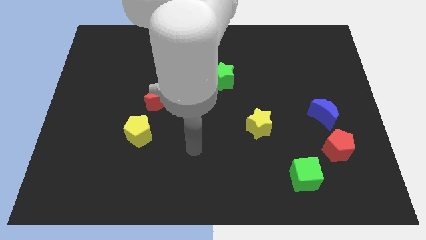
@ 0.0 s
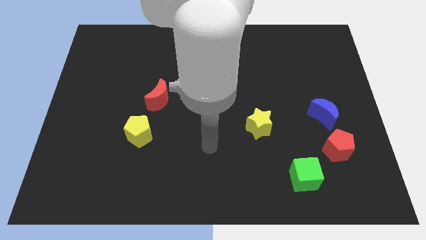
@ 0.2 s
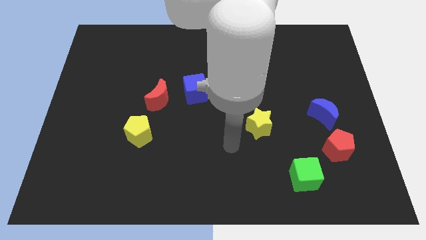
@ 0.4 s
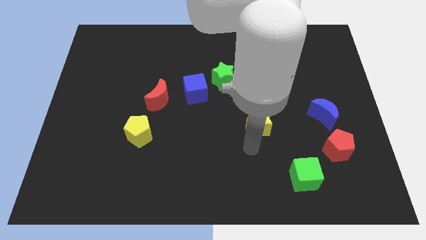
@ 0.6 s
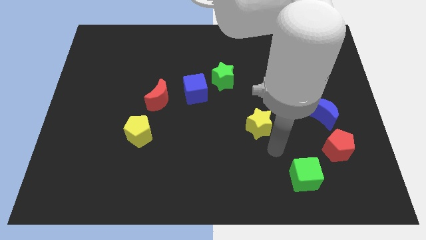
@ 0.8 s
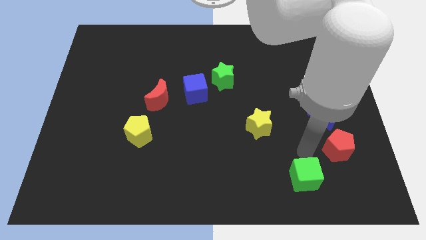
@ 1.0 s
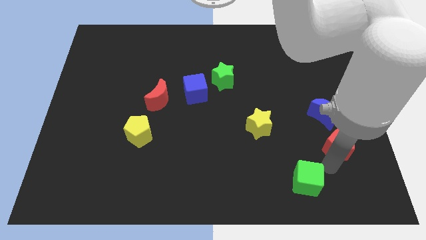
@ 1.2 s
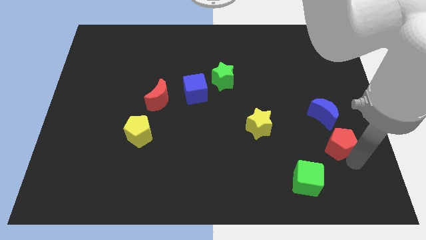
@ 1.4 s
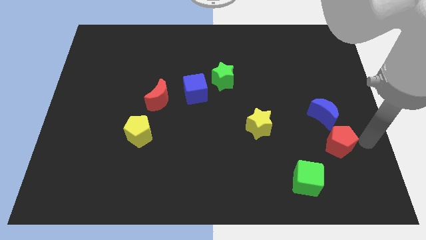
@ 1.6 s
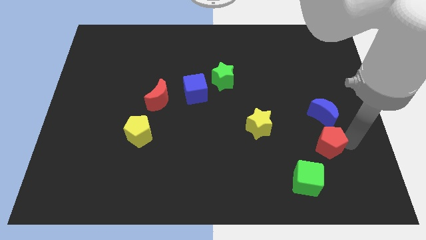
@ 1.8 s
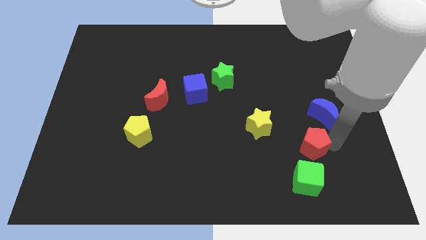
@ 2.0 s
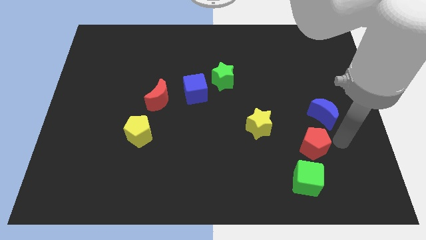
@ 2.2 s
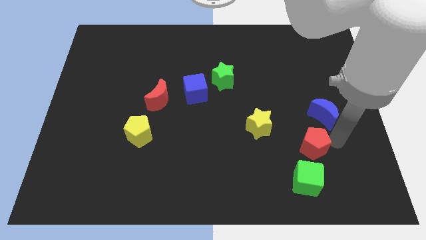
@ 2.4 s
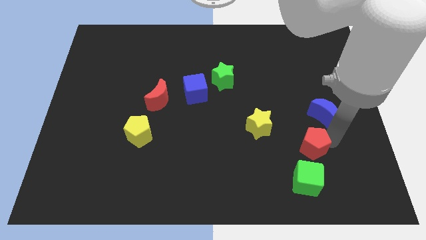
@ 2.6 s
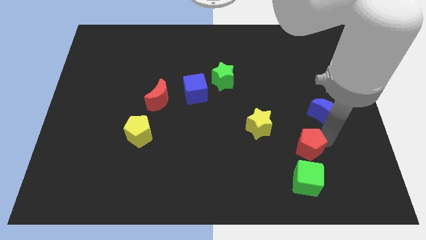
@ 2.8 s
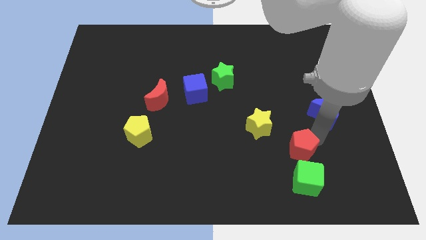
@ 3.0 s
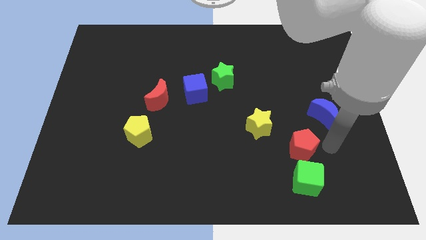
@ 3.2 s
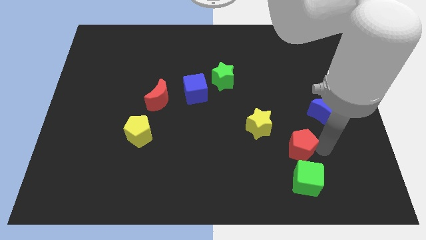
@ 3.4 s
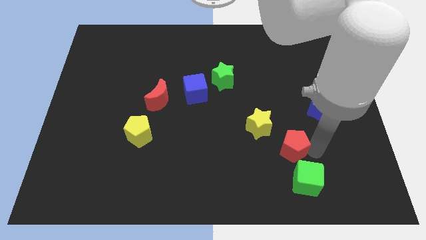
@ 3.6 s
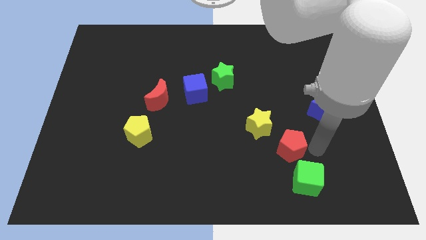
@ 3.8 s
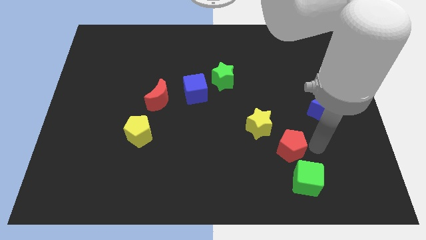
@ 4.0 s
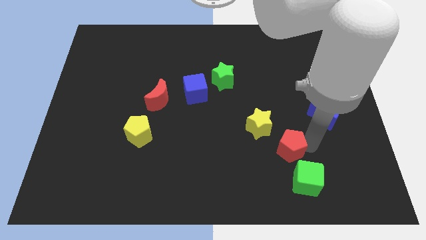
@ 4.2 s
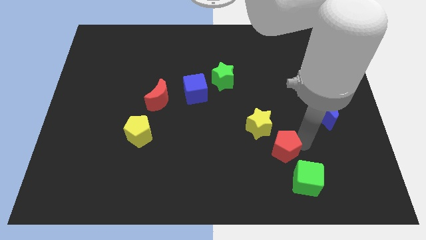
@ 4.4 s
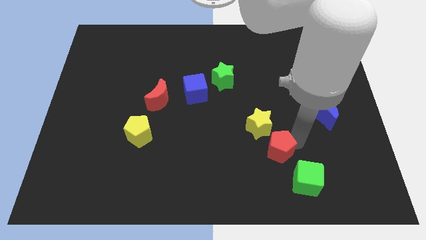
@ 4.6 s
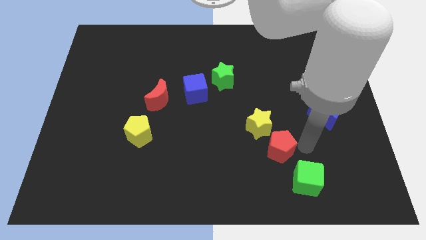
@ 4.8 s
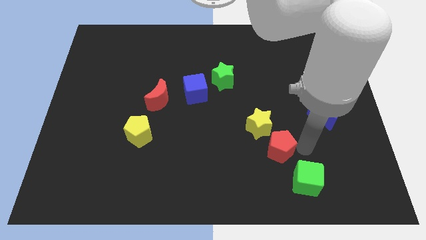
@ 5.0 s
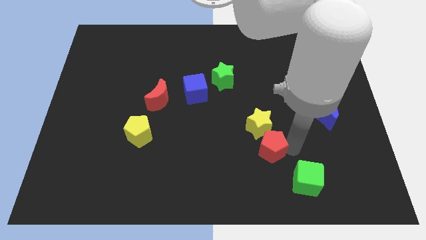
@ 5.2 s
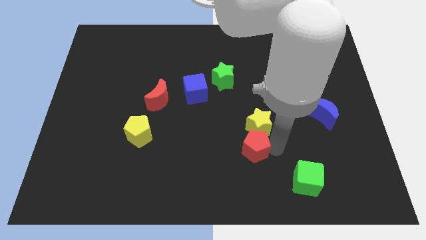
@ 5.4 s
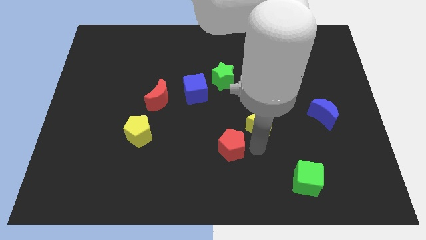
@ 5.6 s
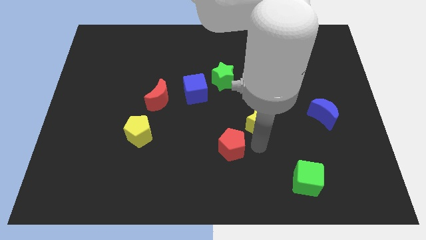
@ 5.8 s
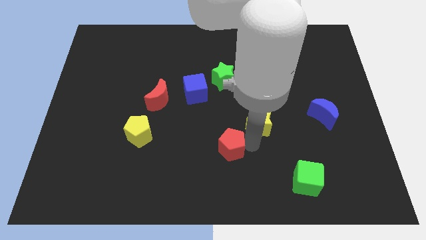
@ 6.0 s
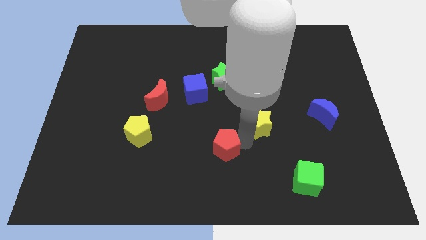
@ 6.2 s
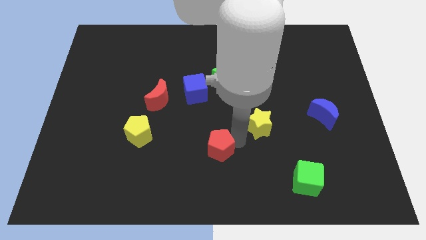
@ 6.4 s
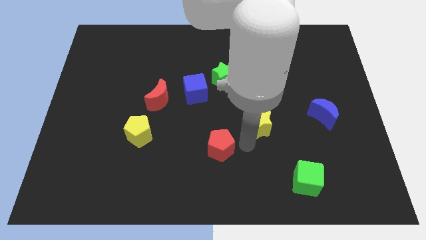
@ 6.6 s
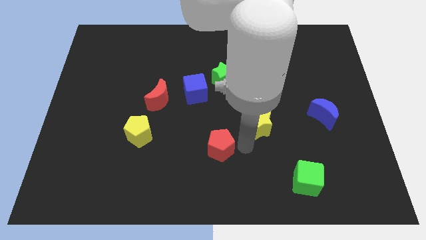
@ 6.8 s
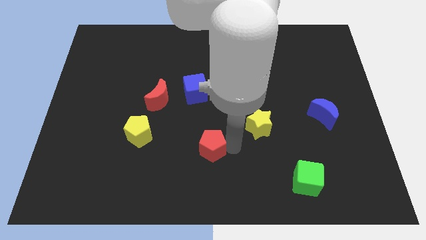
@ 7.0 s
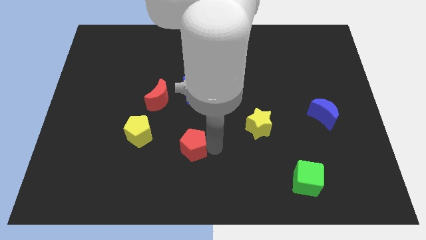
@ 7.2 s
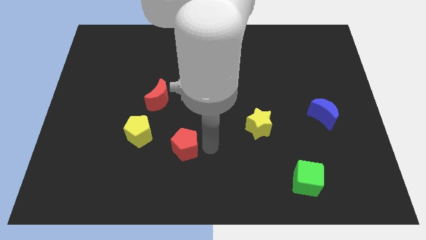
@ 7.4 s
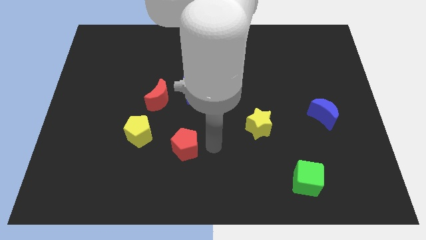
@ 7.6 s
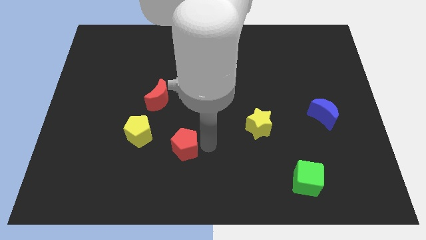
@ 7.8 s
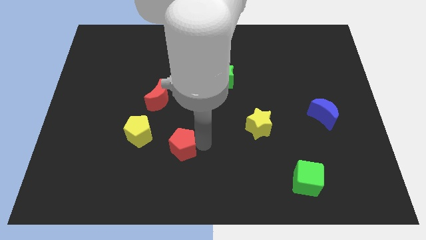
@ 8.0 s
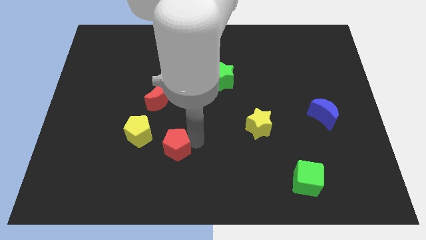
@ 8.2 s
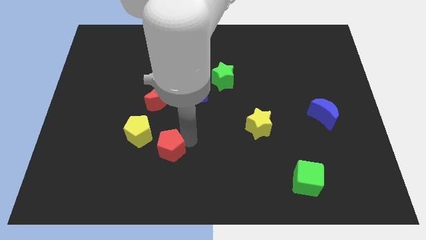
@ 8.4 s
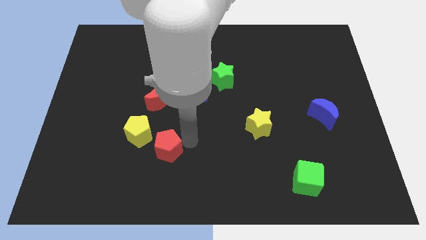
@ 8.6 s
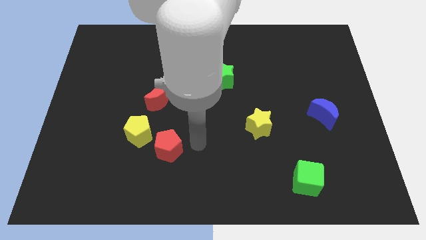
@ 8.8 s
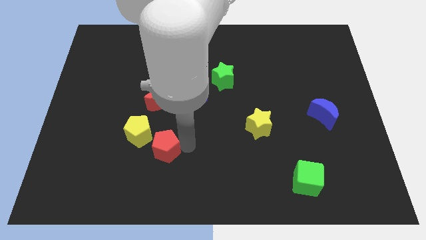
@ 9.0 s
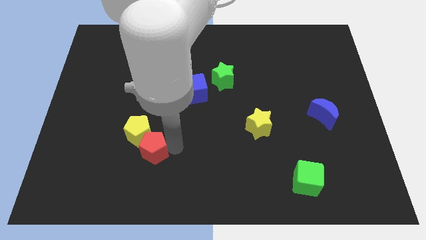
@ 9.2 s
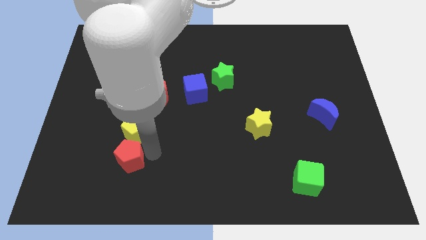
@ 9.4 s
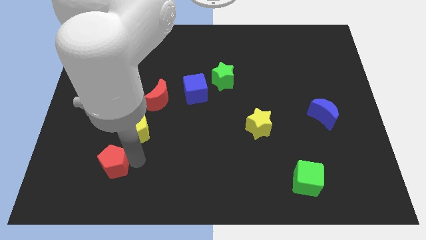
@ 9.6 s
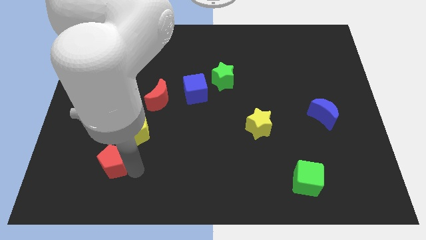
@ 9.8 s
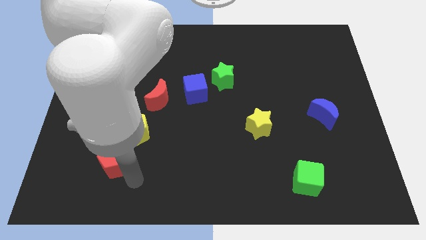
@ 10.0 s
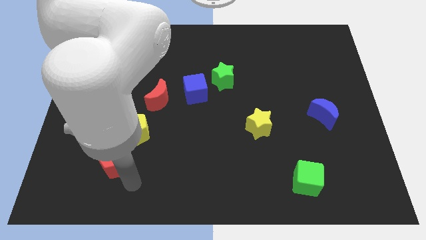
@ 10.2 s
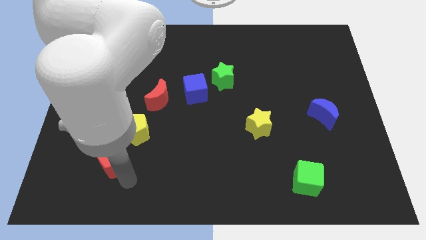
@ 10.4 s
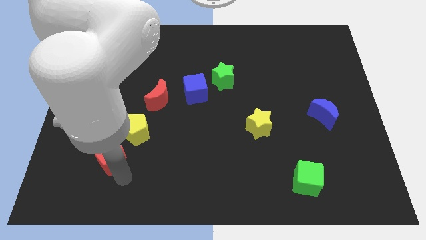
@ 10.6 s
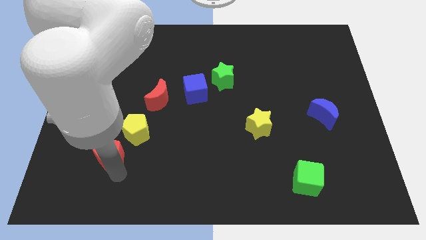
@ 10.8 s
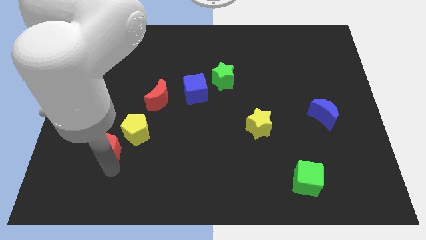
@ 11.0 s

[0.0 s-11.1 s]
push the red pentagon left of the yellow pentagon

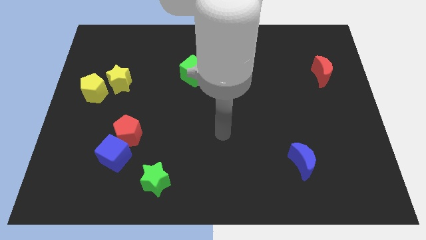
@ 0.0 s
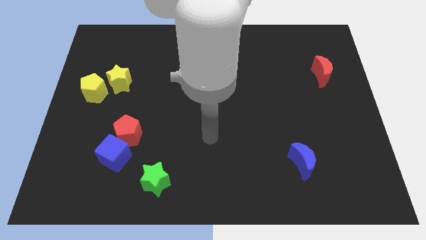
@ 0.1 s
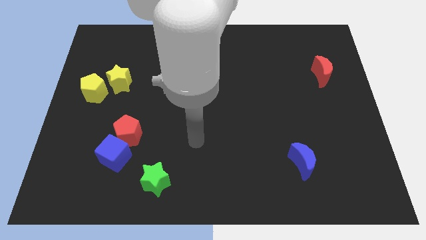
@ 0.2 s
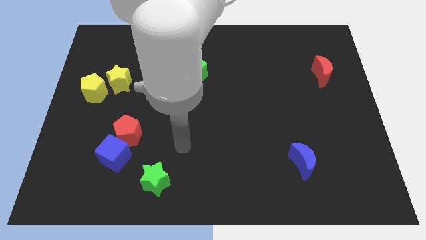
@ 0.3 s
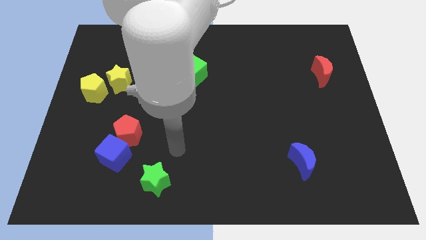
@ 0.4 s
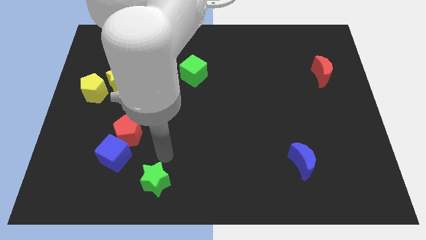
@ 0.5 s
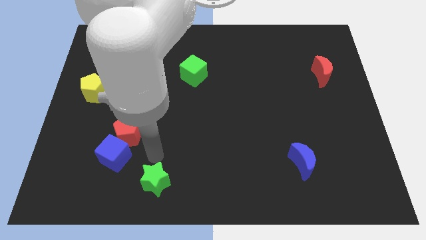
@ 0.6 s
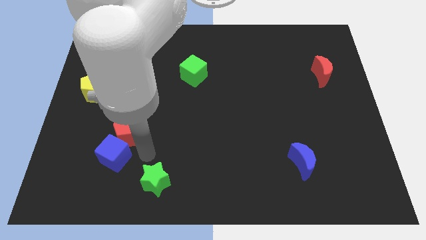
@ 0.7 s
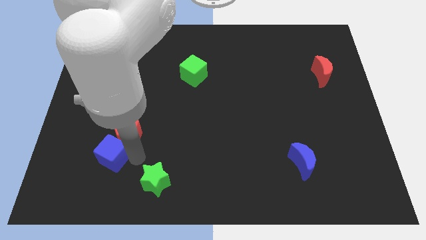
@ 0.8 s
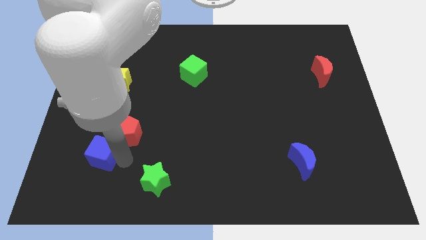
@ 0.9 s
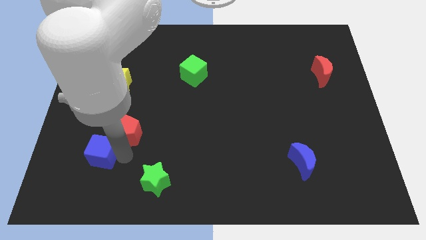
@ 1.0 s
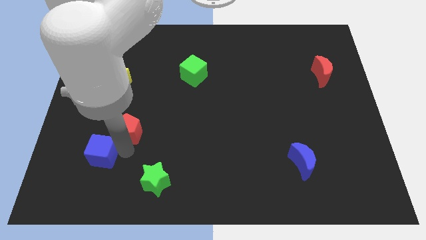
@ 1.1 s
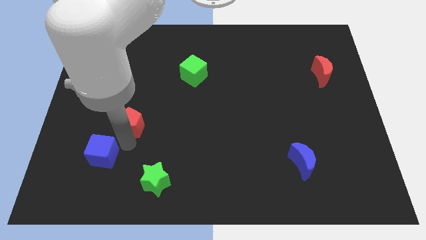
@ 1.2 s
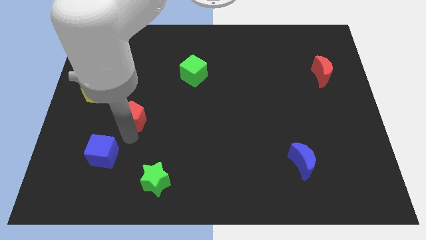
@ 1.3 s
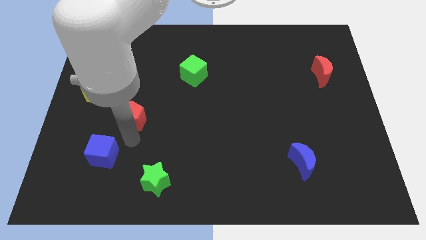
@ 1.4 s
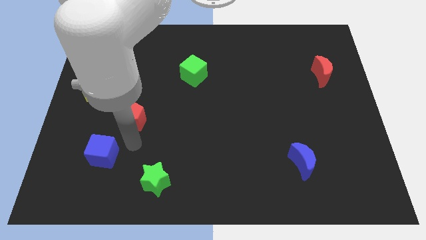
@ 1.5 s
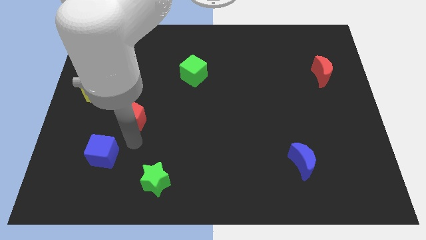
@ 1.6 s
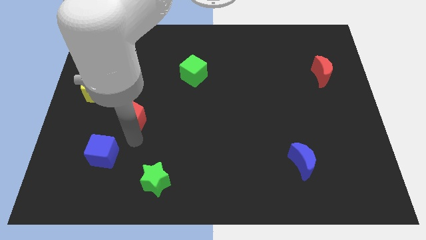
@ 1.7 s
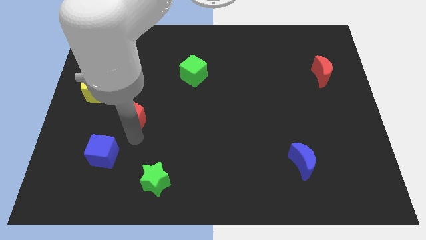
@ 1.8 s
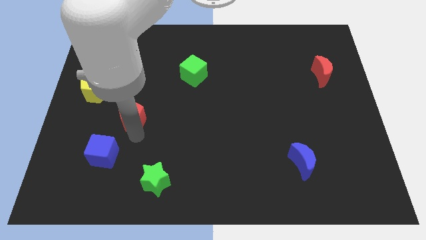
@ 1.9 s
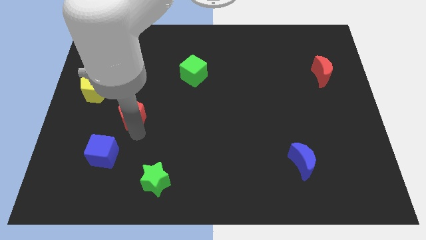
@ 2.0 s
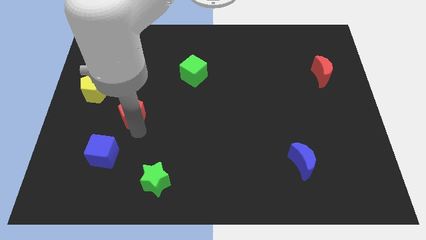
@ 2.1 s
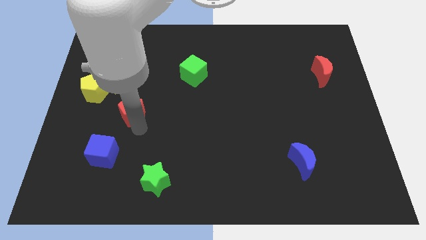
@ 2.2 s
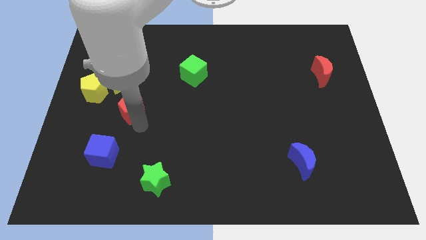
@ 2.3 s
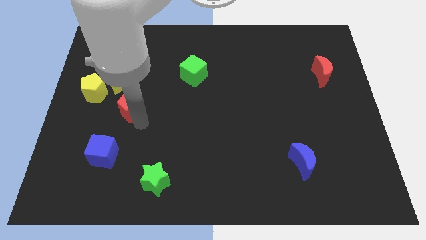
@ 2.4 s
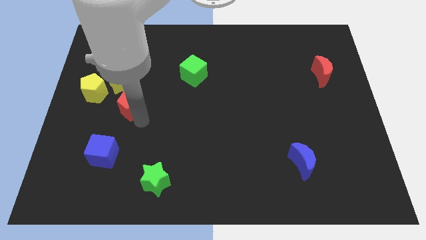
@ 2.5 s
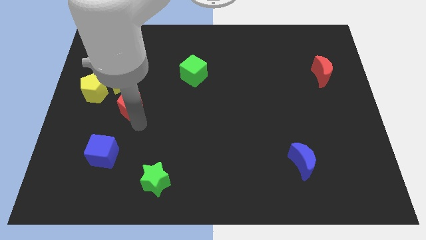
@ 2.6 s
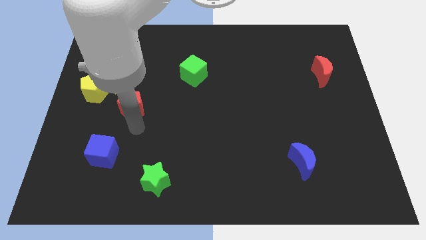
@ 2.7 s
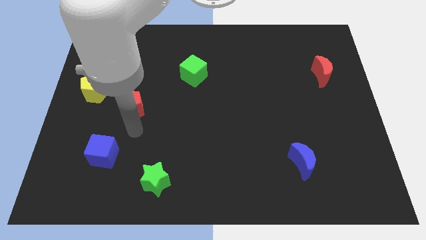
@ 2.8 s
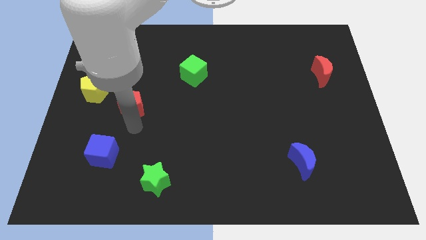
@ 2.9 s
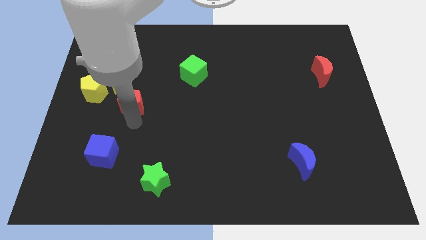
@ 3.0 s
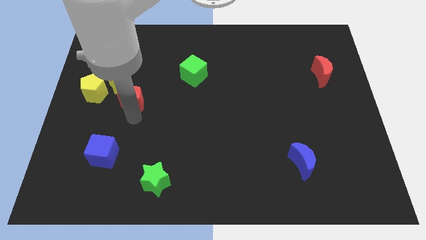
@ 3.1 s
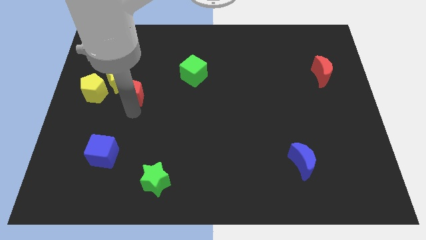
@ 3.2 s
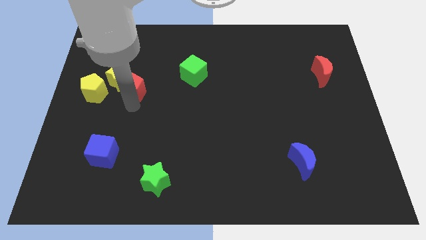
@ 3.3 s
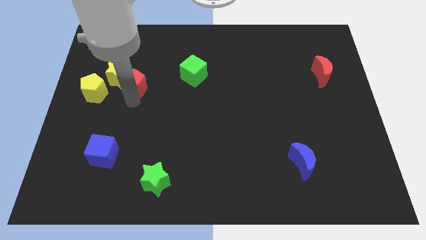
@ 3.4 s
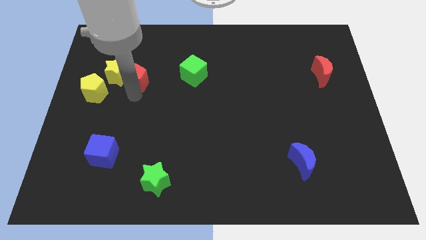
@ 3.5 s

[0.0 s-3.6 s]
move the red pentagon to the top right side of the yellow pentagon
